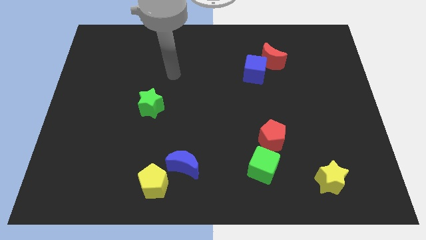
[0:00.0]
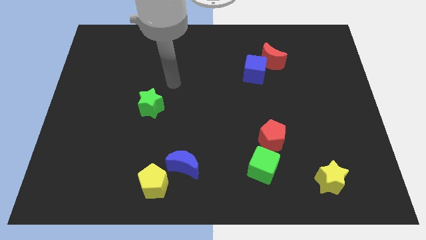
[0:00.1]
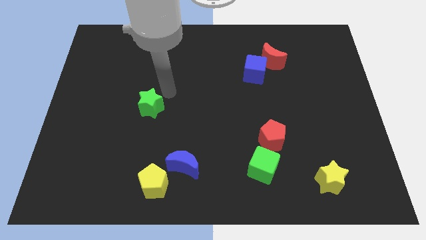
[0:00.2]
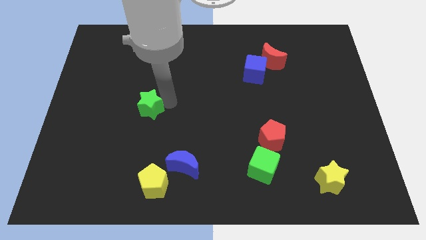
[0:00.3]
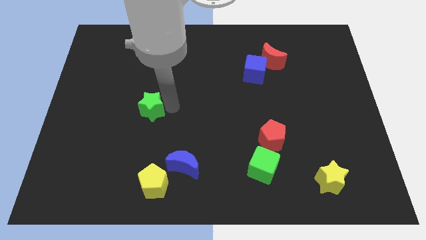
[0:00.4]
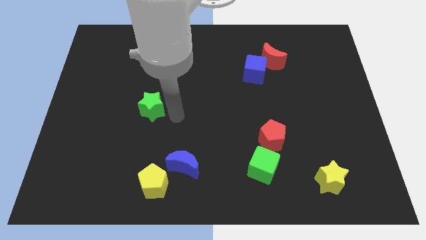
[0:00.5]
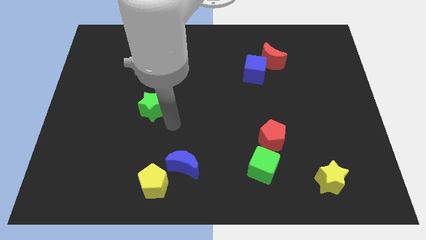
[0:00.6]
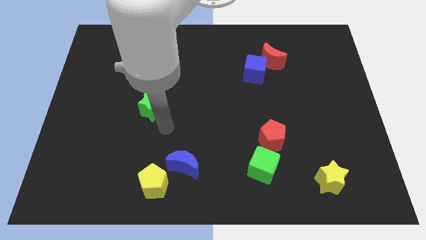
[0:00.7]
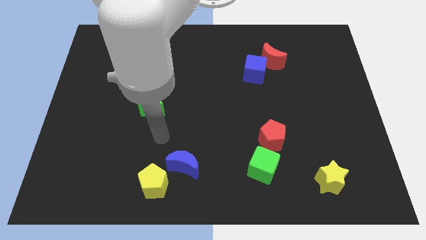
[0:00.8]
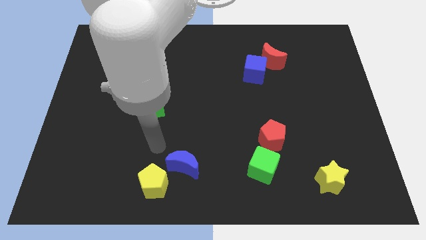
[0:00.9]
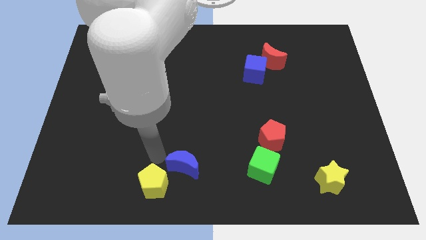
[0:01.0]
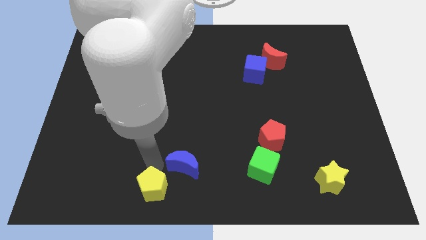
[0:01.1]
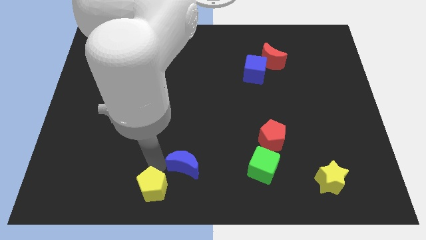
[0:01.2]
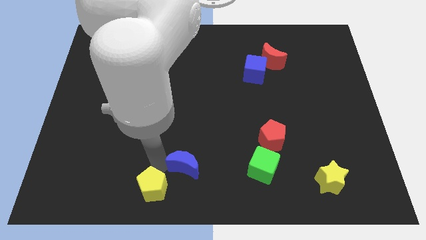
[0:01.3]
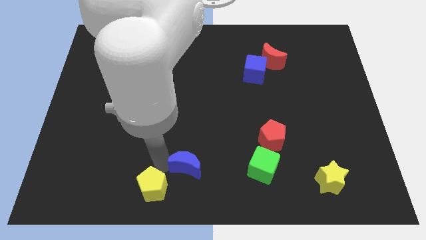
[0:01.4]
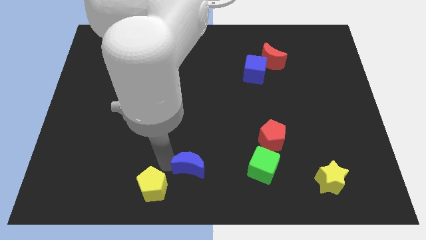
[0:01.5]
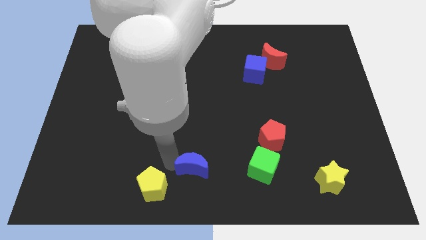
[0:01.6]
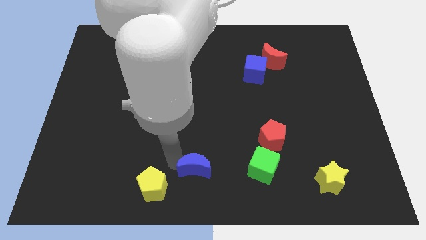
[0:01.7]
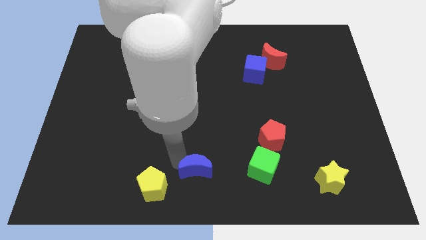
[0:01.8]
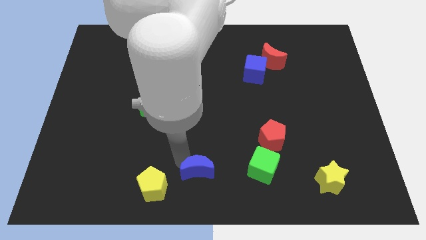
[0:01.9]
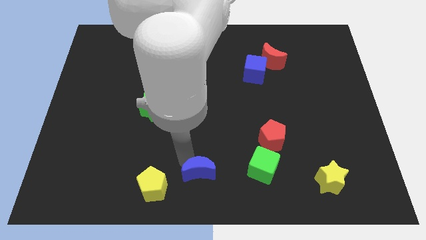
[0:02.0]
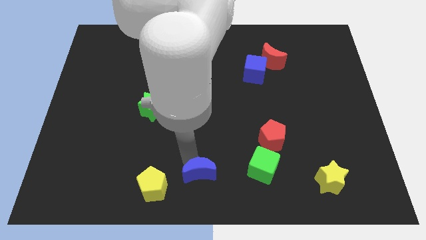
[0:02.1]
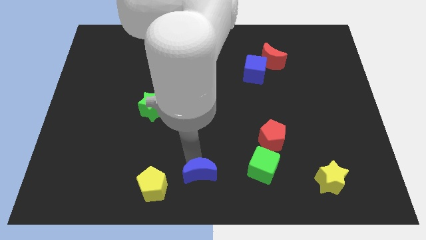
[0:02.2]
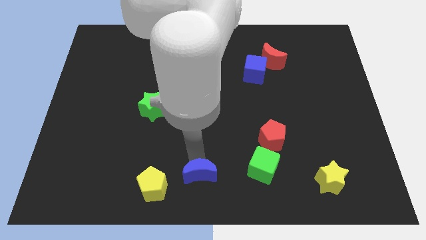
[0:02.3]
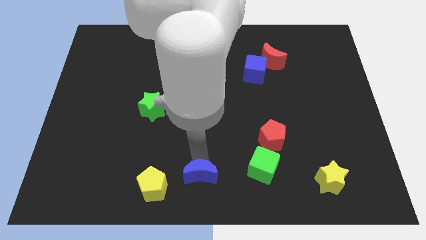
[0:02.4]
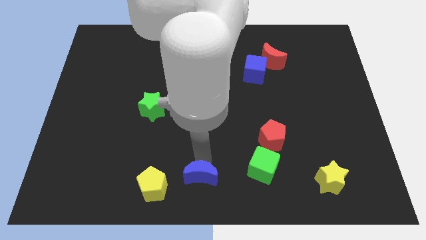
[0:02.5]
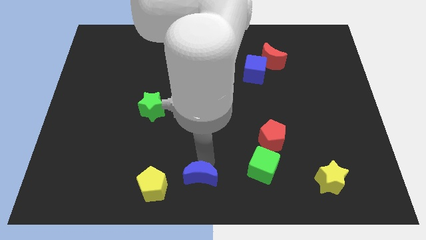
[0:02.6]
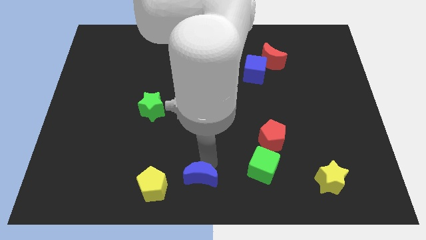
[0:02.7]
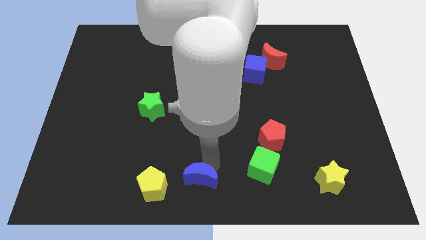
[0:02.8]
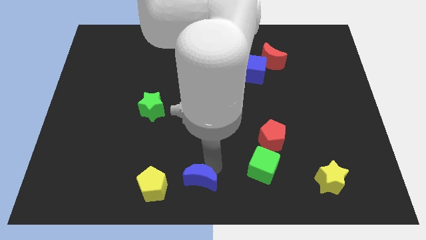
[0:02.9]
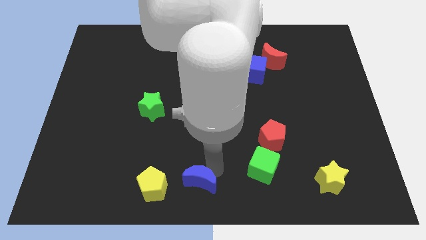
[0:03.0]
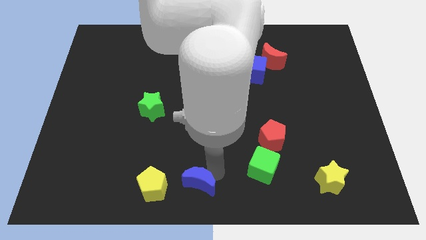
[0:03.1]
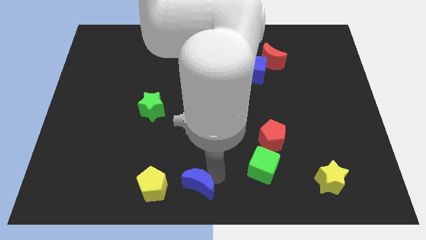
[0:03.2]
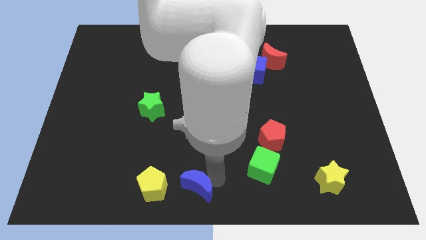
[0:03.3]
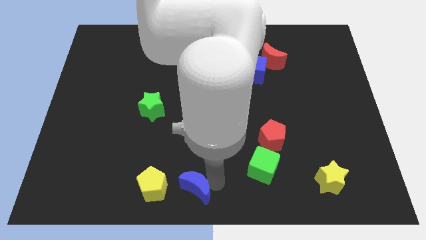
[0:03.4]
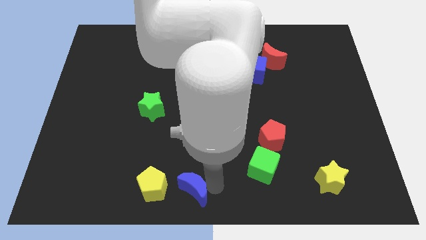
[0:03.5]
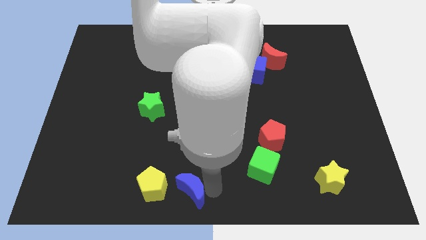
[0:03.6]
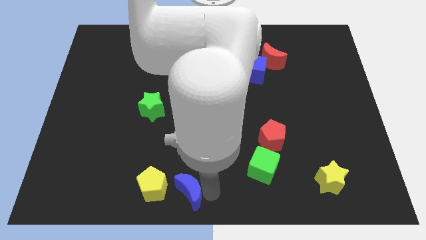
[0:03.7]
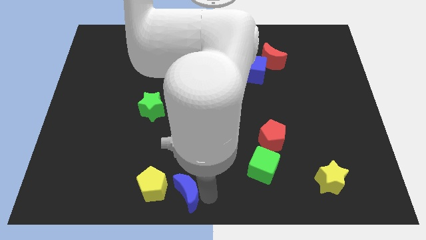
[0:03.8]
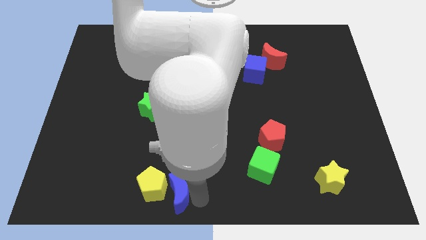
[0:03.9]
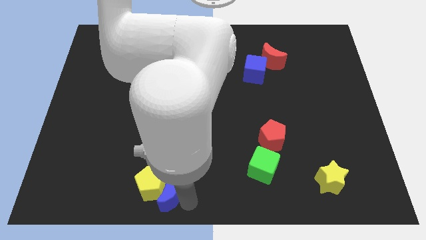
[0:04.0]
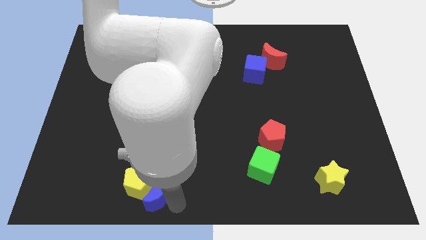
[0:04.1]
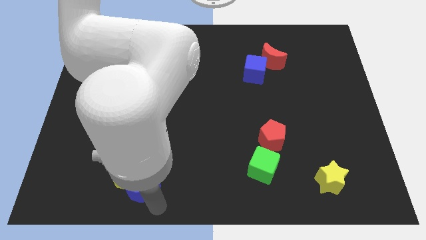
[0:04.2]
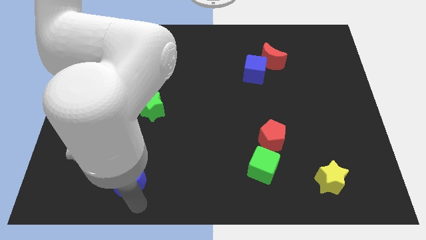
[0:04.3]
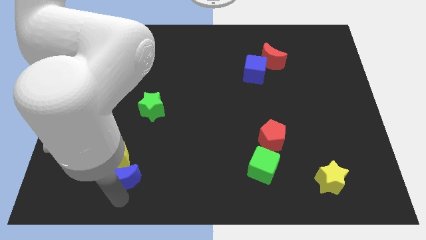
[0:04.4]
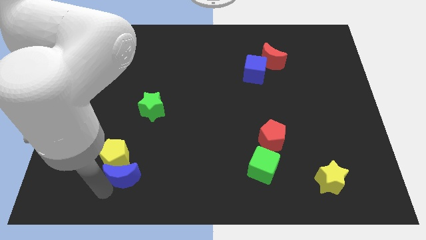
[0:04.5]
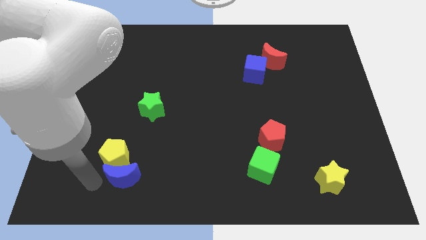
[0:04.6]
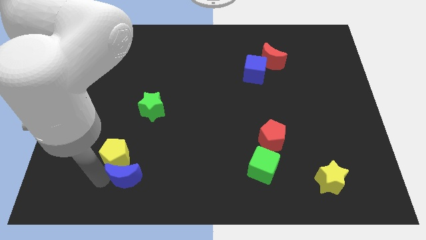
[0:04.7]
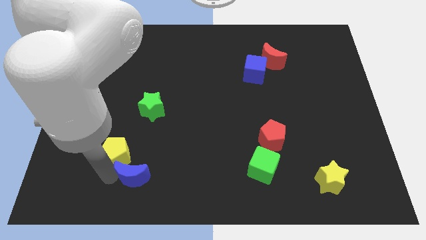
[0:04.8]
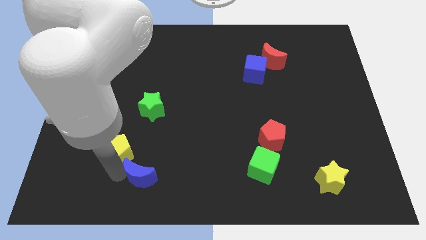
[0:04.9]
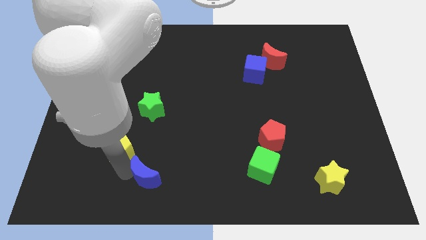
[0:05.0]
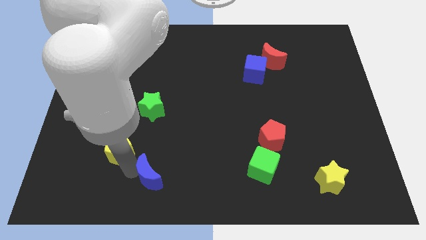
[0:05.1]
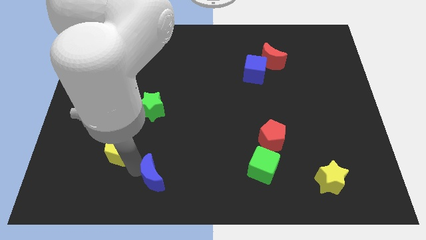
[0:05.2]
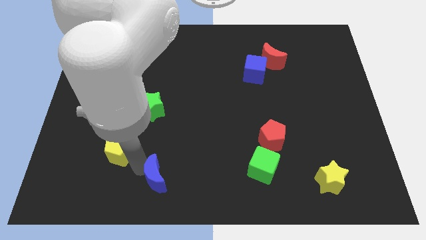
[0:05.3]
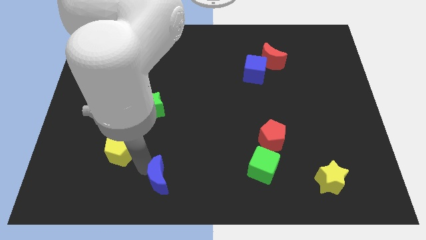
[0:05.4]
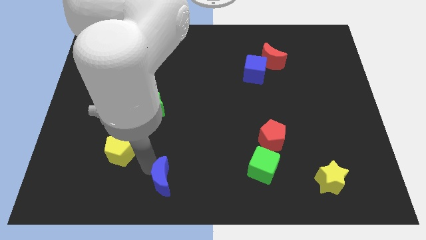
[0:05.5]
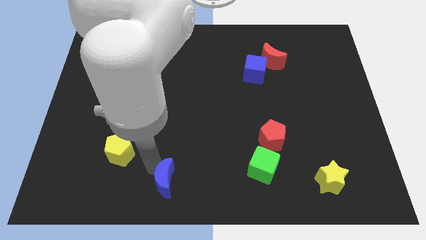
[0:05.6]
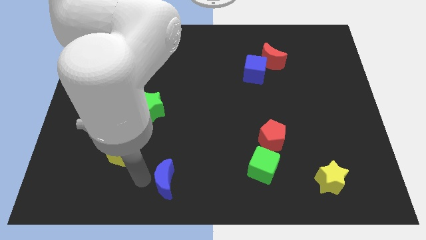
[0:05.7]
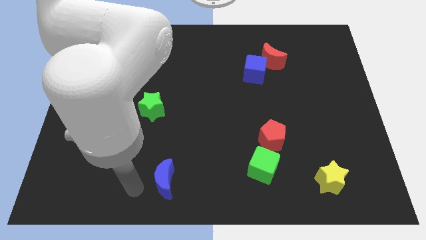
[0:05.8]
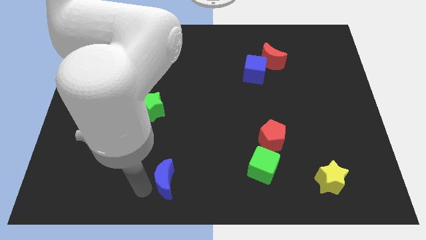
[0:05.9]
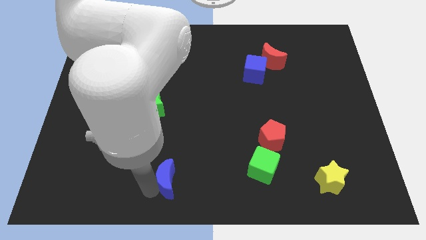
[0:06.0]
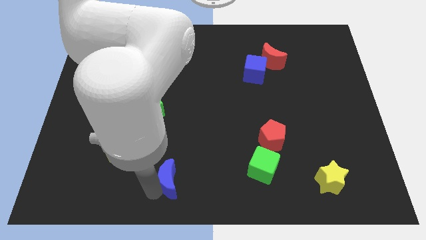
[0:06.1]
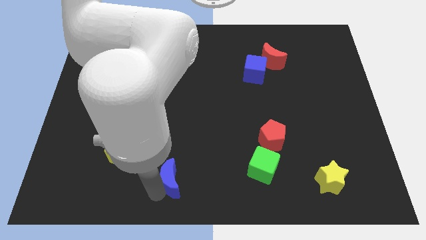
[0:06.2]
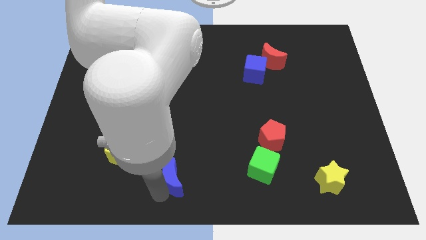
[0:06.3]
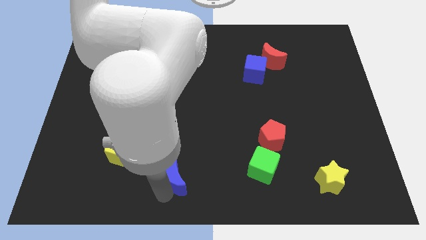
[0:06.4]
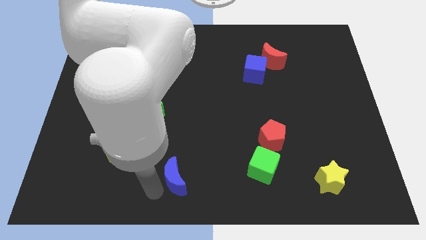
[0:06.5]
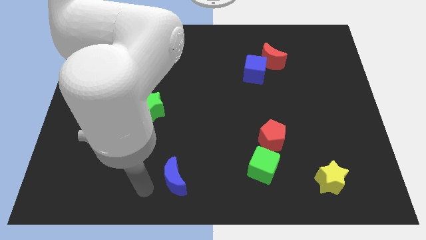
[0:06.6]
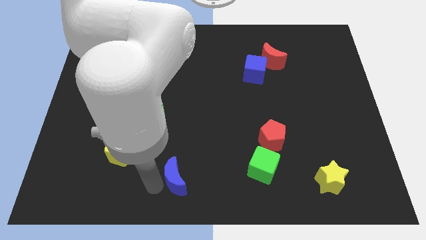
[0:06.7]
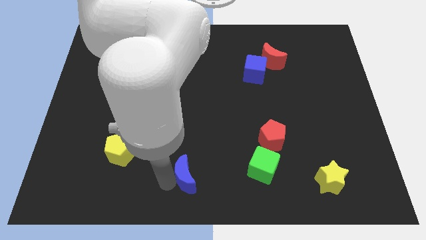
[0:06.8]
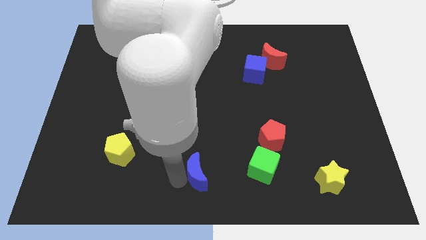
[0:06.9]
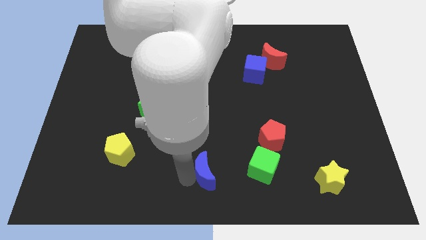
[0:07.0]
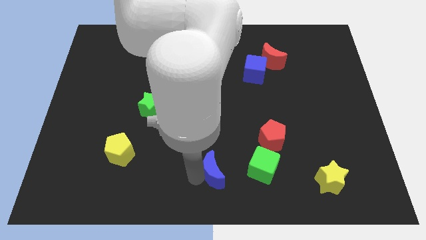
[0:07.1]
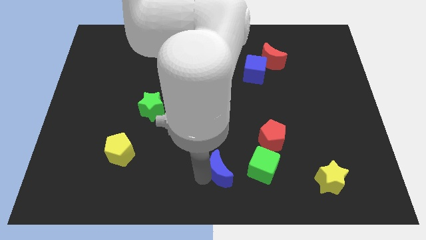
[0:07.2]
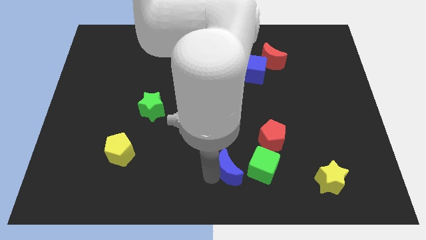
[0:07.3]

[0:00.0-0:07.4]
put the blue moon to the bottom left side of the red pentagon

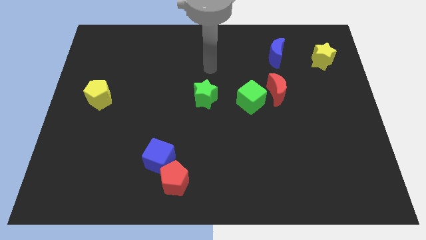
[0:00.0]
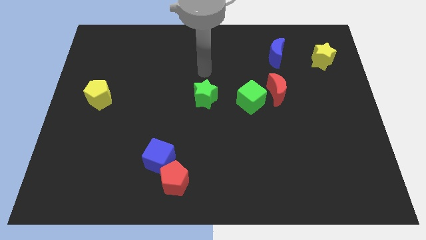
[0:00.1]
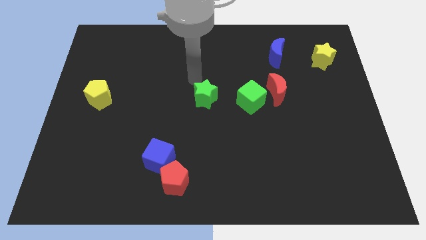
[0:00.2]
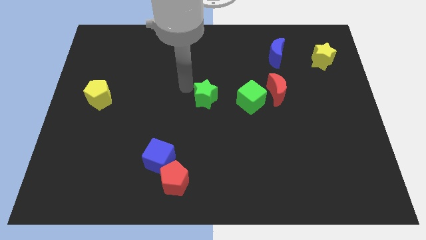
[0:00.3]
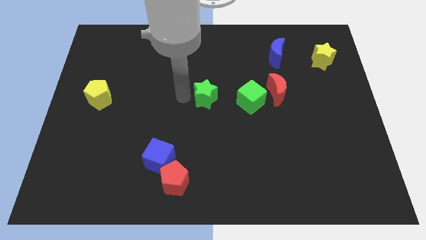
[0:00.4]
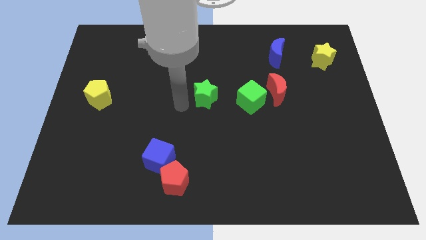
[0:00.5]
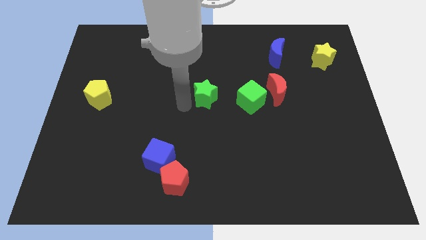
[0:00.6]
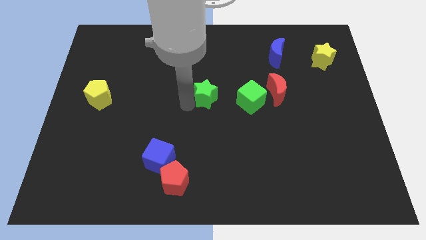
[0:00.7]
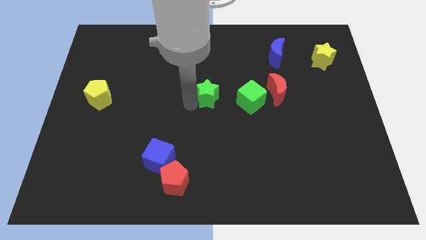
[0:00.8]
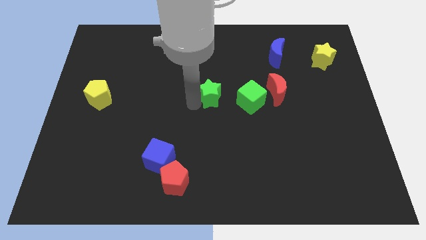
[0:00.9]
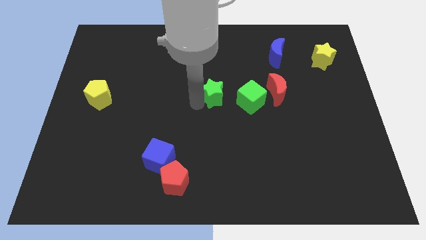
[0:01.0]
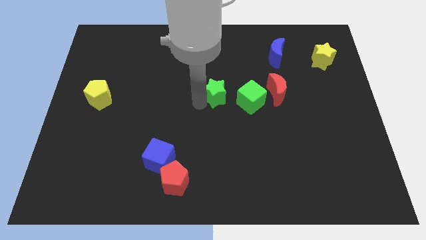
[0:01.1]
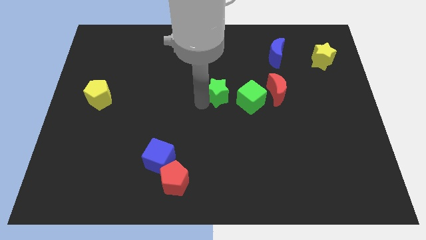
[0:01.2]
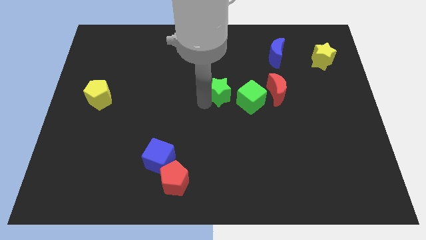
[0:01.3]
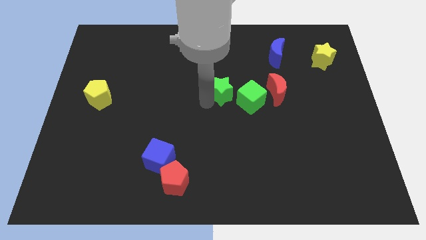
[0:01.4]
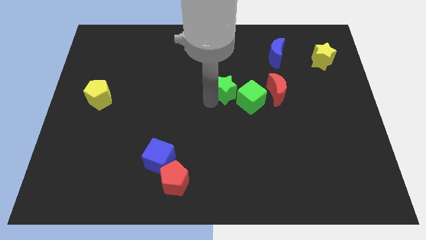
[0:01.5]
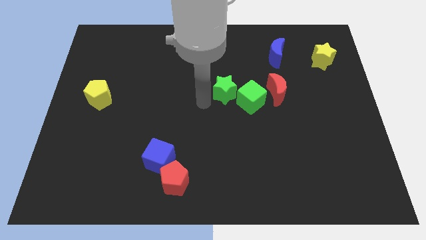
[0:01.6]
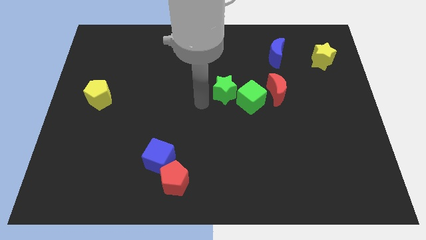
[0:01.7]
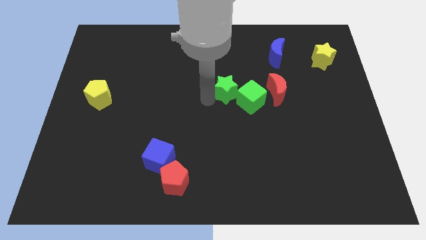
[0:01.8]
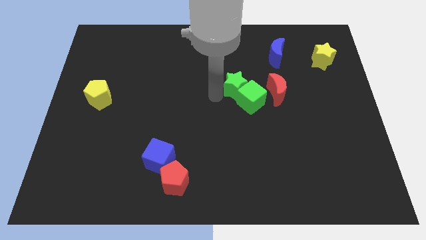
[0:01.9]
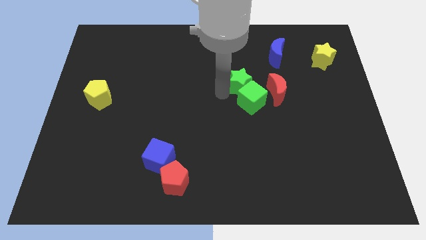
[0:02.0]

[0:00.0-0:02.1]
slide the green star diagonally up and to the left of the red moon
